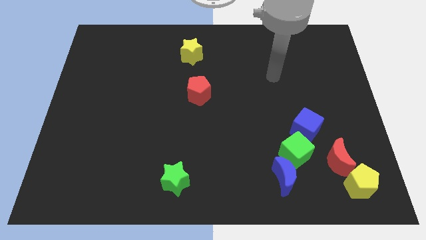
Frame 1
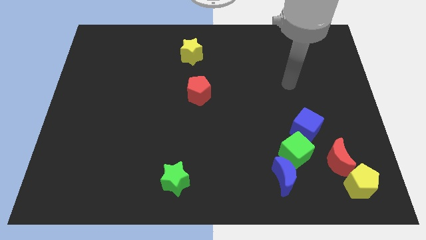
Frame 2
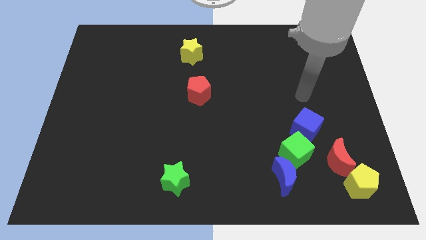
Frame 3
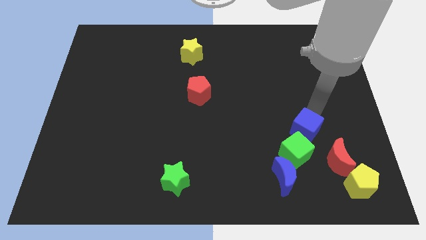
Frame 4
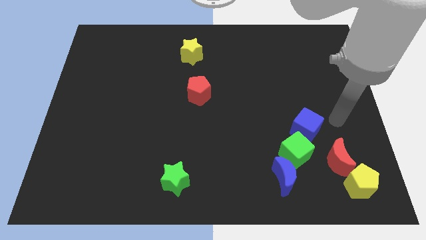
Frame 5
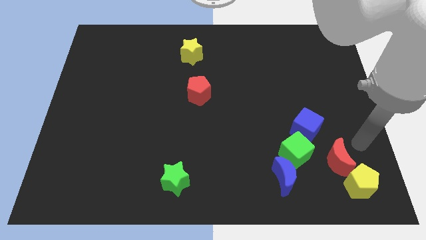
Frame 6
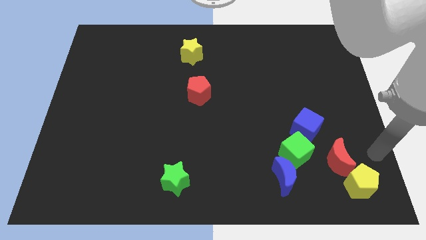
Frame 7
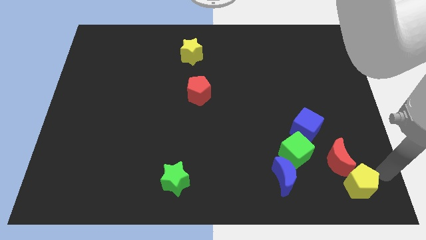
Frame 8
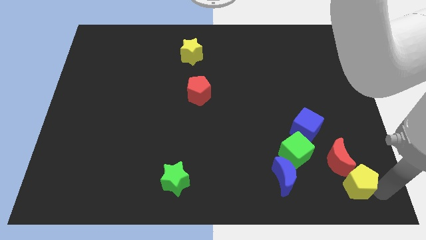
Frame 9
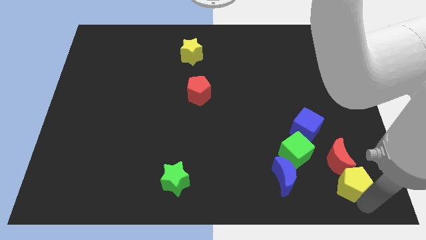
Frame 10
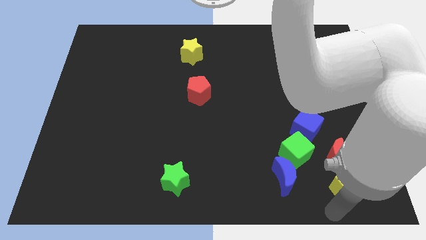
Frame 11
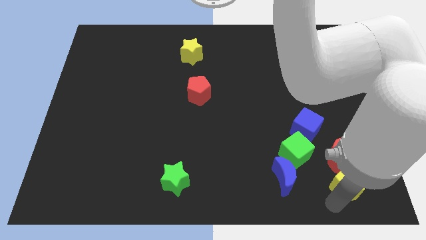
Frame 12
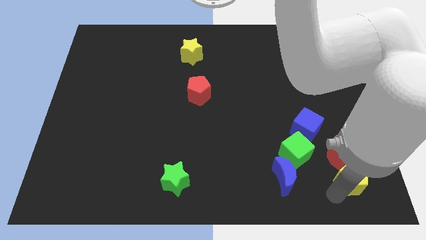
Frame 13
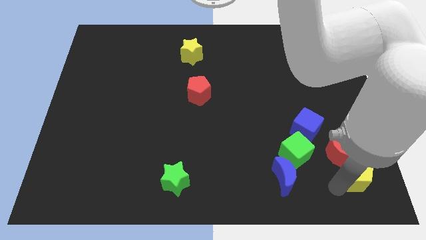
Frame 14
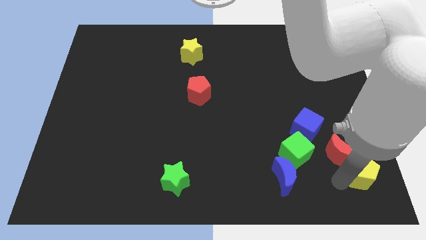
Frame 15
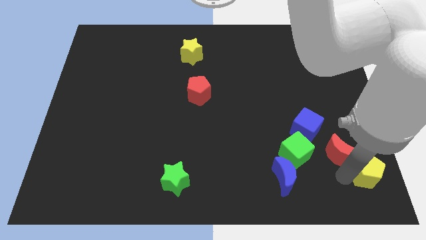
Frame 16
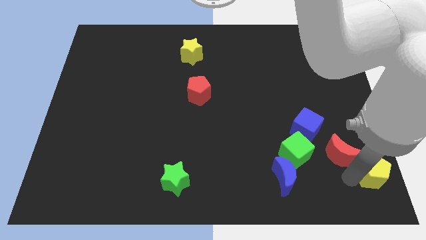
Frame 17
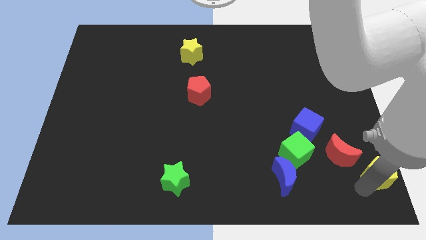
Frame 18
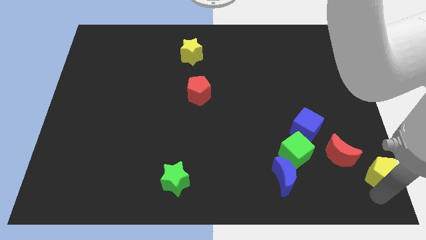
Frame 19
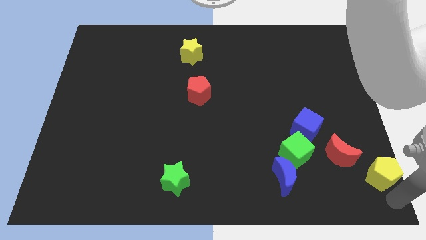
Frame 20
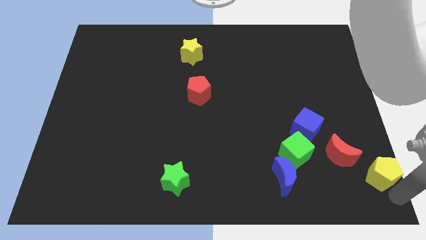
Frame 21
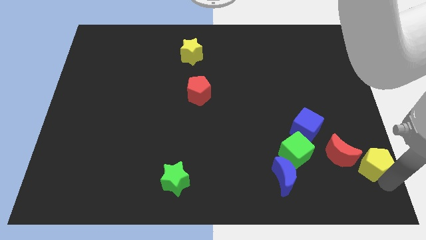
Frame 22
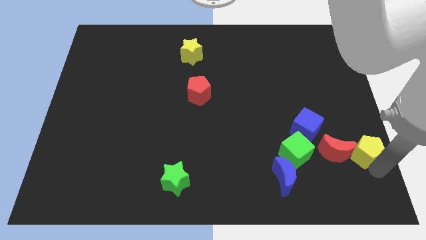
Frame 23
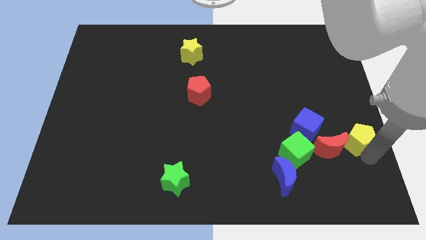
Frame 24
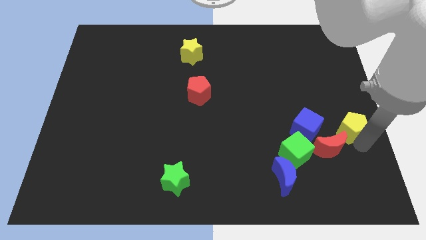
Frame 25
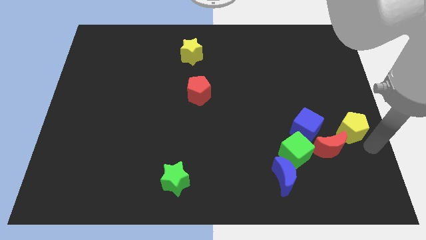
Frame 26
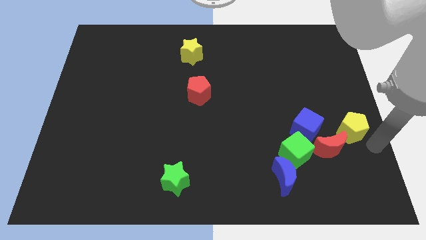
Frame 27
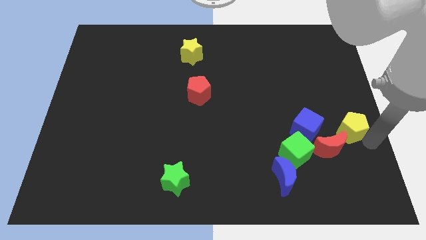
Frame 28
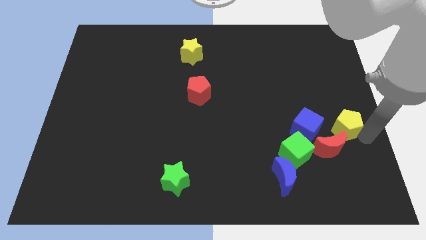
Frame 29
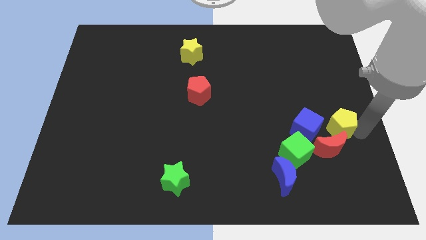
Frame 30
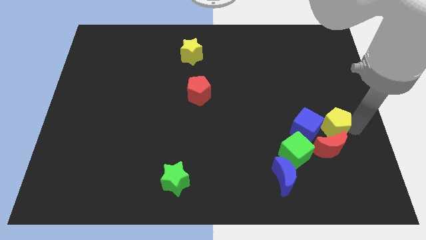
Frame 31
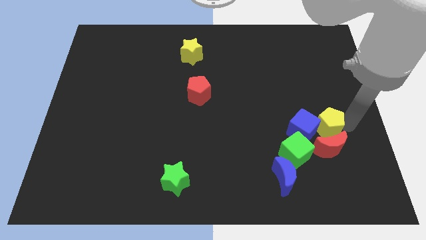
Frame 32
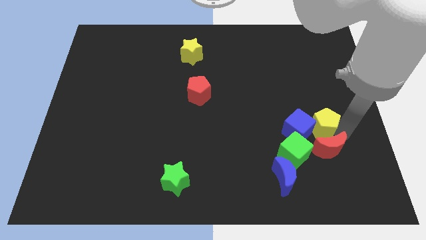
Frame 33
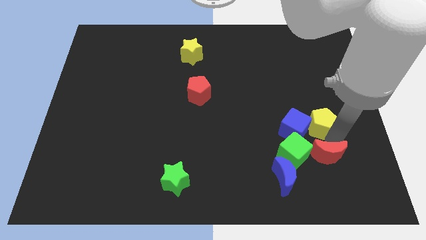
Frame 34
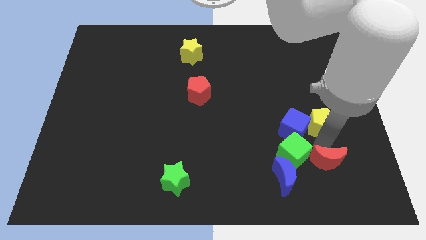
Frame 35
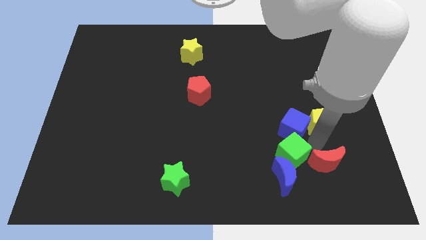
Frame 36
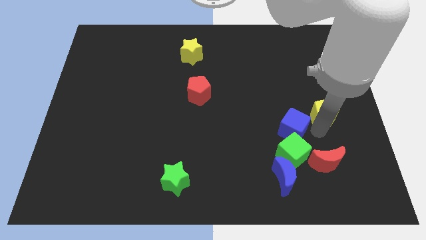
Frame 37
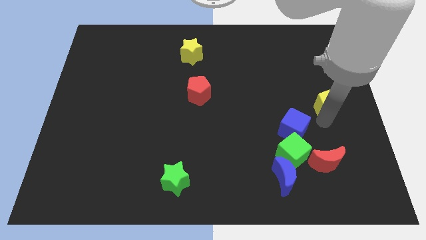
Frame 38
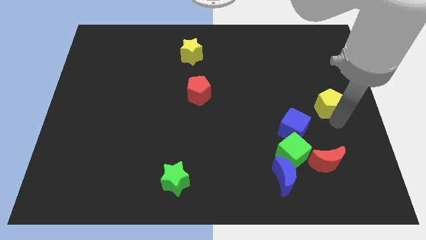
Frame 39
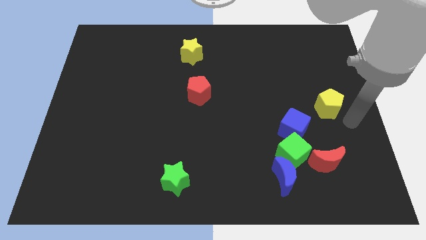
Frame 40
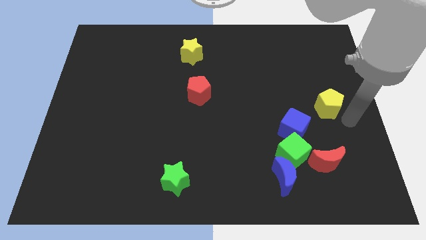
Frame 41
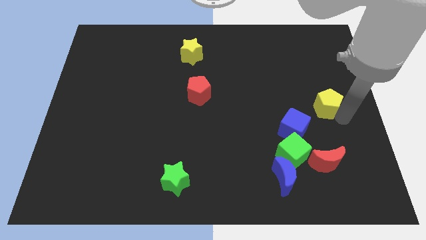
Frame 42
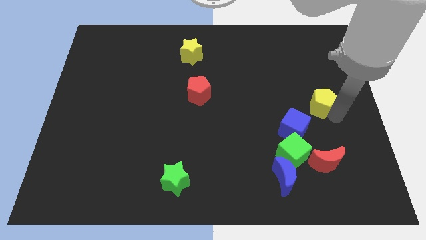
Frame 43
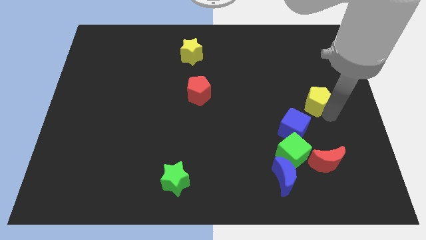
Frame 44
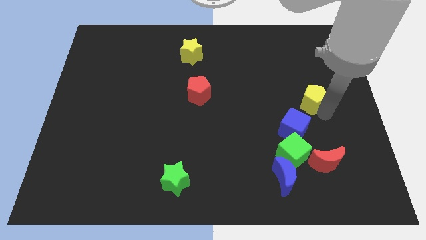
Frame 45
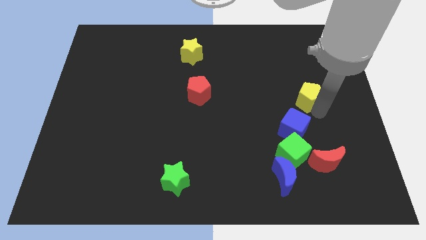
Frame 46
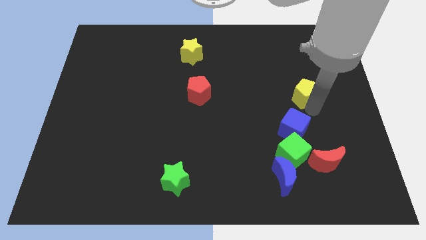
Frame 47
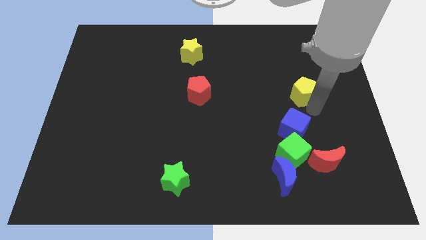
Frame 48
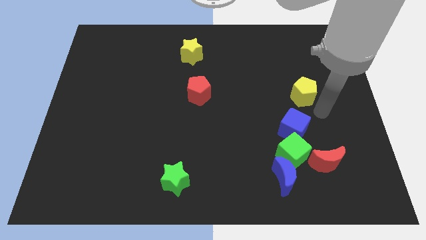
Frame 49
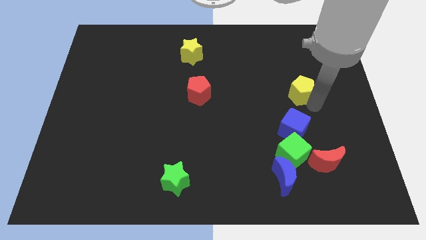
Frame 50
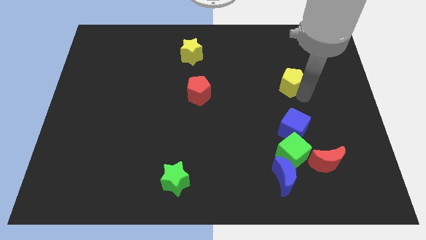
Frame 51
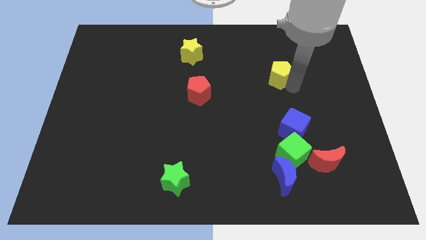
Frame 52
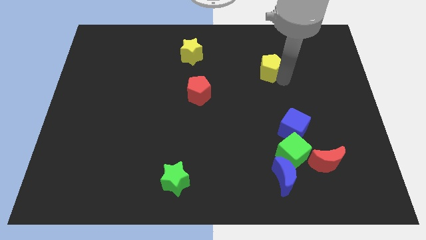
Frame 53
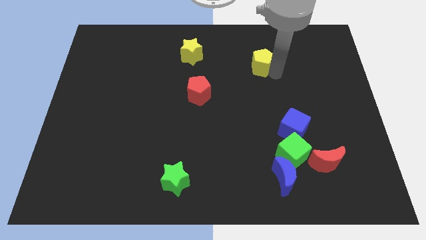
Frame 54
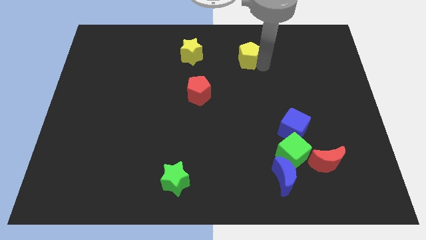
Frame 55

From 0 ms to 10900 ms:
put the yellow pentagon just right of the yellow star

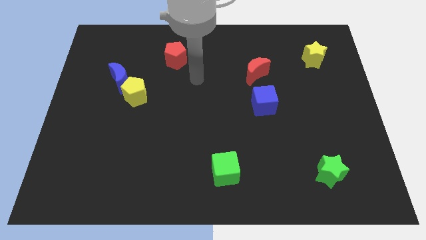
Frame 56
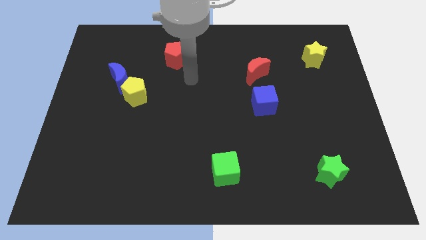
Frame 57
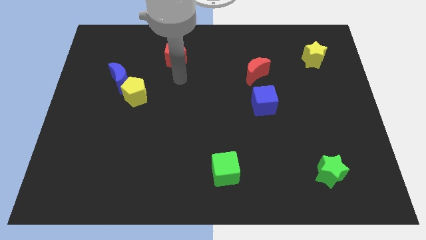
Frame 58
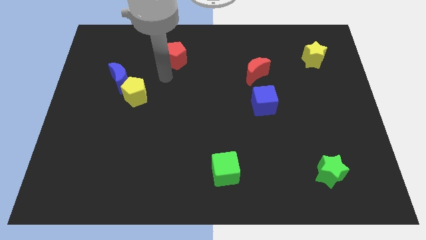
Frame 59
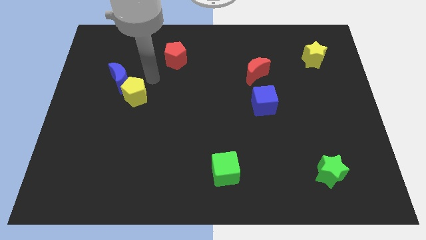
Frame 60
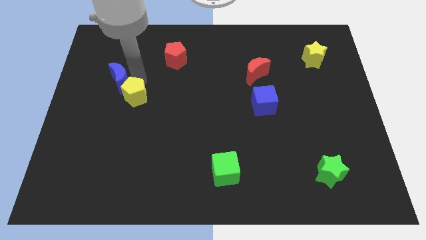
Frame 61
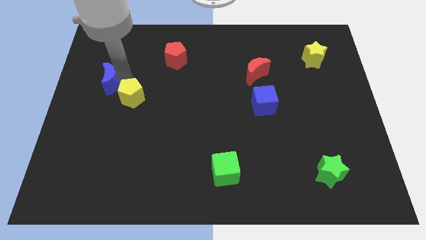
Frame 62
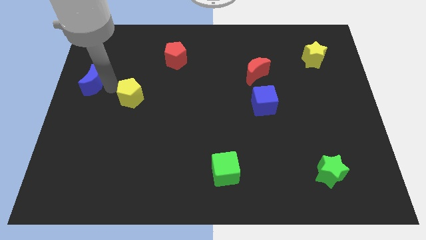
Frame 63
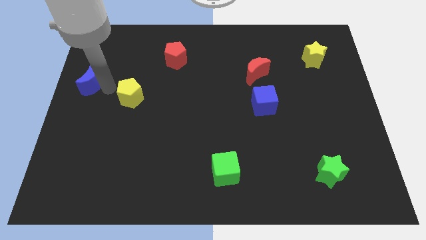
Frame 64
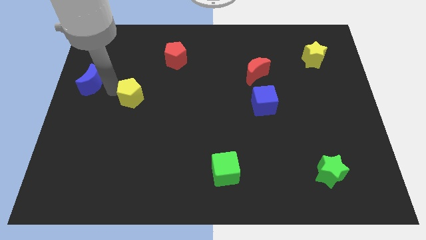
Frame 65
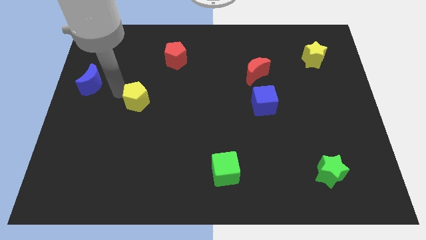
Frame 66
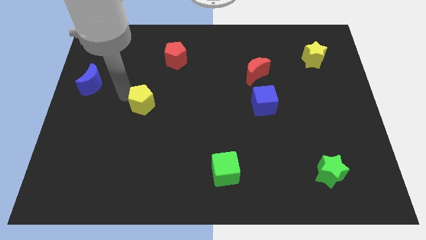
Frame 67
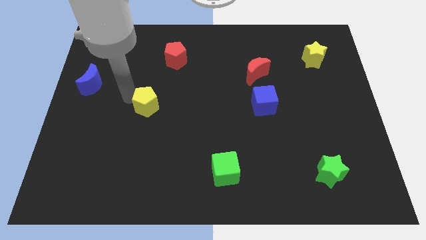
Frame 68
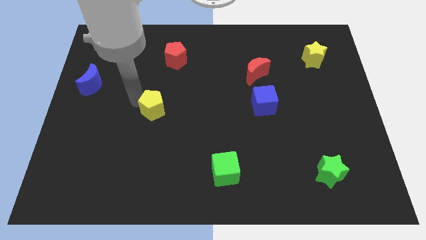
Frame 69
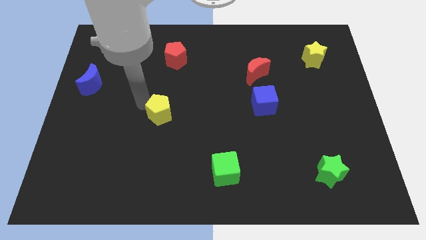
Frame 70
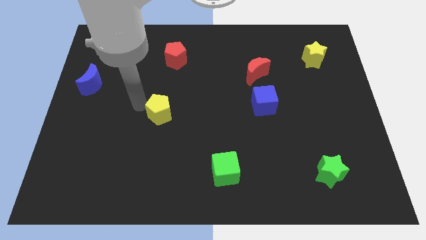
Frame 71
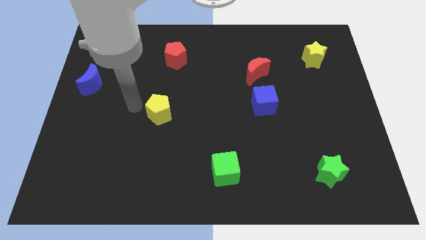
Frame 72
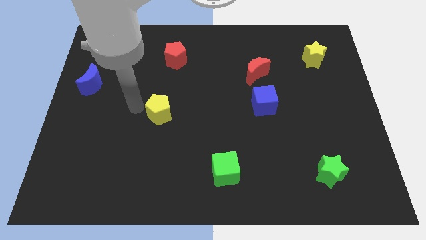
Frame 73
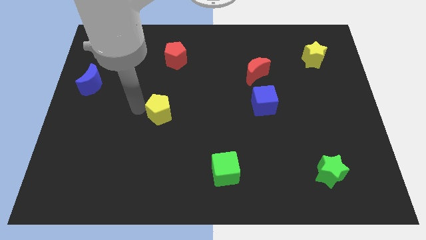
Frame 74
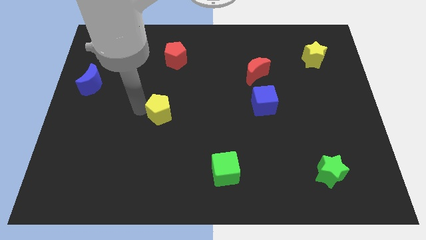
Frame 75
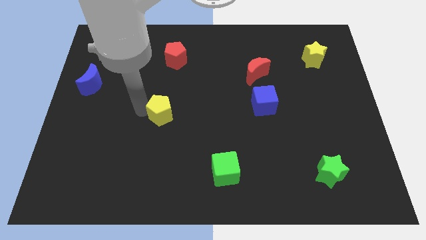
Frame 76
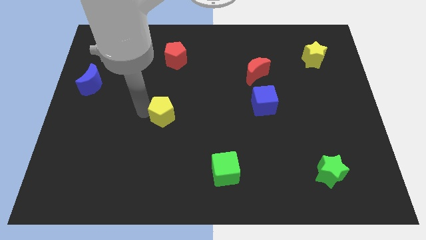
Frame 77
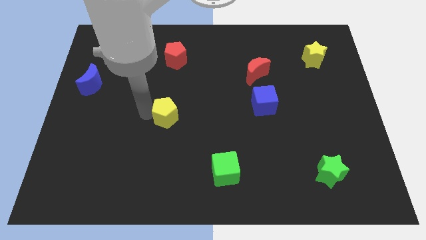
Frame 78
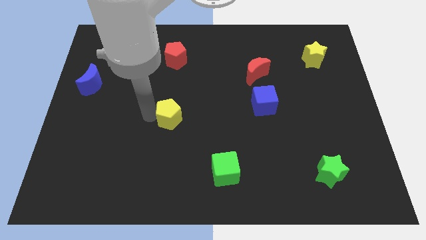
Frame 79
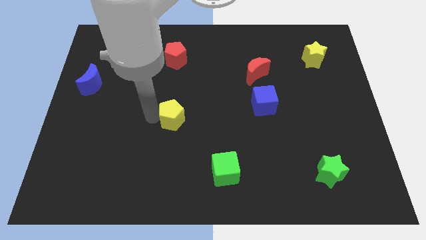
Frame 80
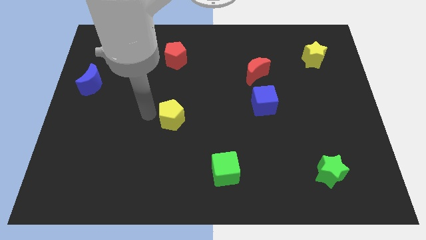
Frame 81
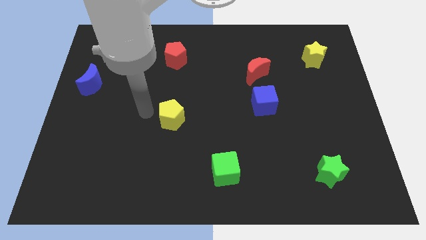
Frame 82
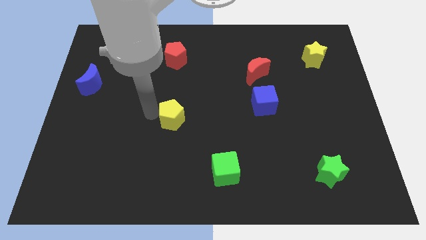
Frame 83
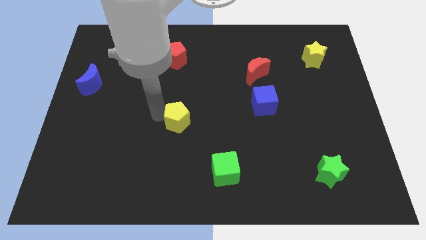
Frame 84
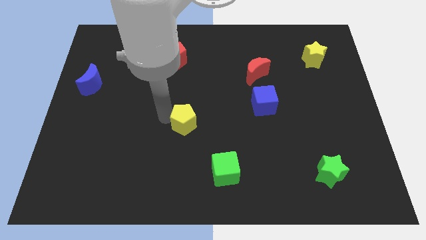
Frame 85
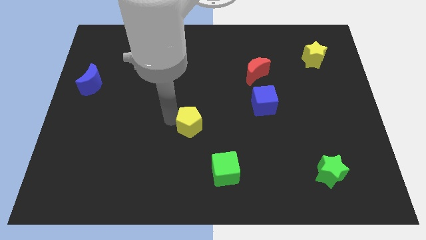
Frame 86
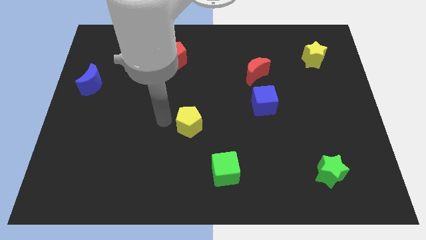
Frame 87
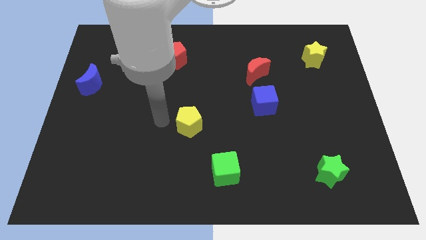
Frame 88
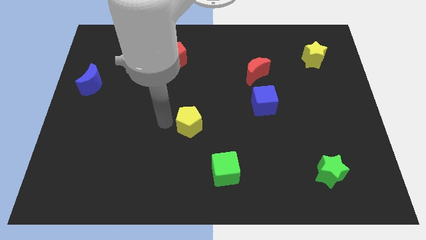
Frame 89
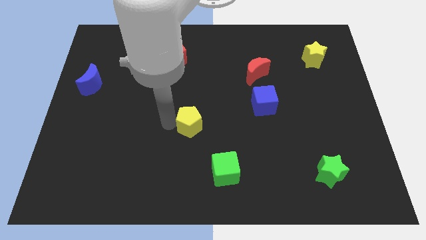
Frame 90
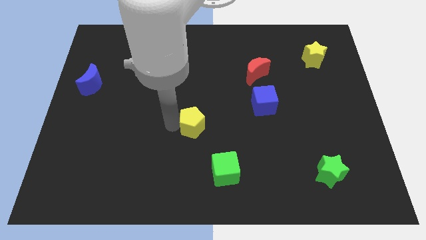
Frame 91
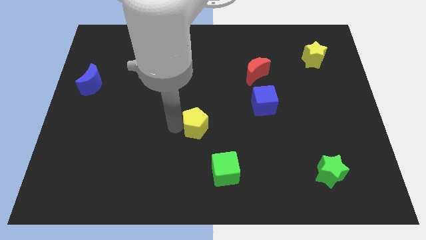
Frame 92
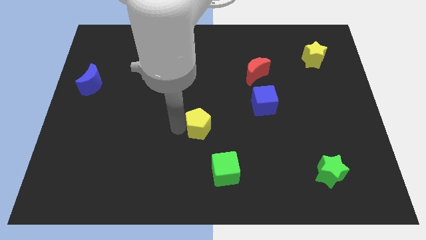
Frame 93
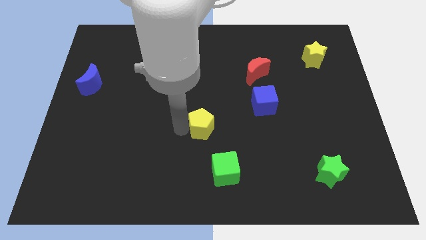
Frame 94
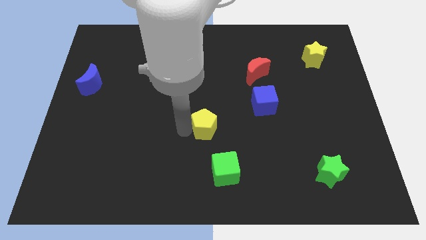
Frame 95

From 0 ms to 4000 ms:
slide the yellow pentagon to the top of the green cube
